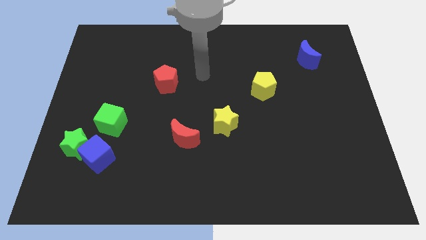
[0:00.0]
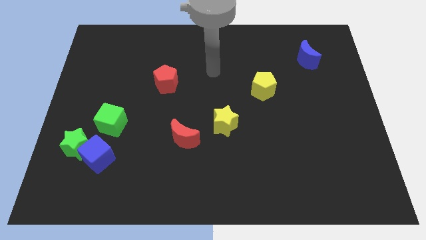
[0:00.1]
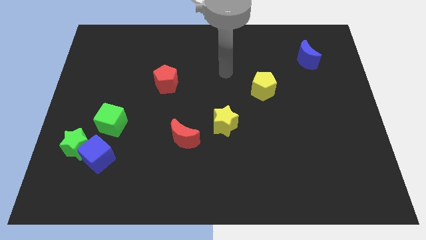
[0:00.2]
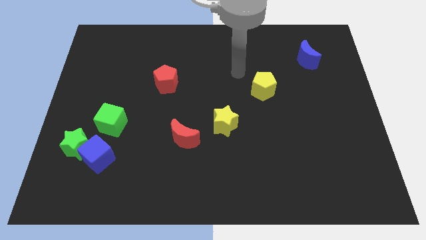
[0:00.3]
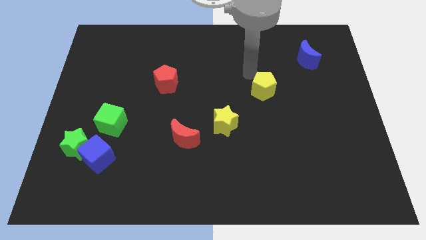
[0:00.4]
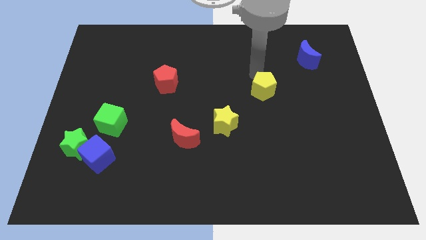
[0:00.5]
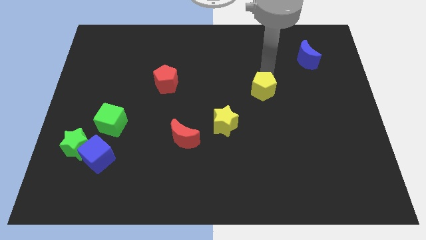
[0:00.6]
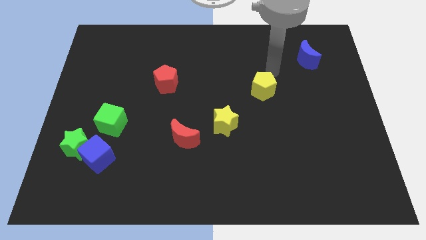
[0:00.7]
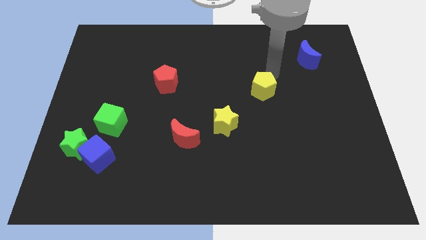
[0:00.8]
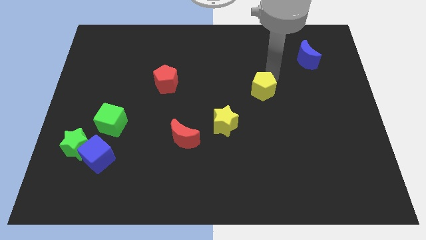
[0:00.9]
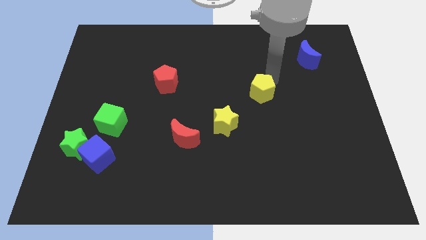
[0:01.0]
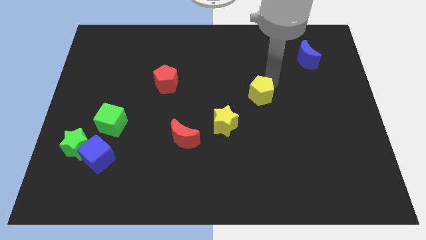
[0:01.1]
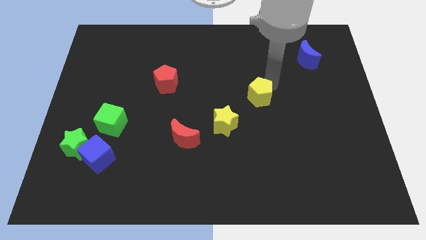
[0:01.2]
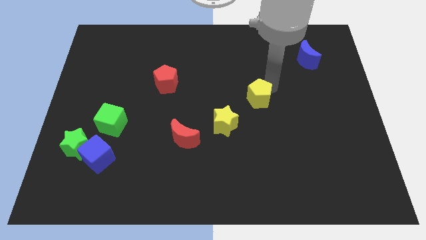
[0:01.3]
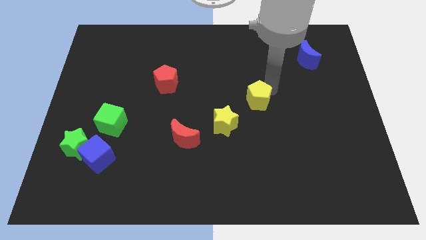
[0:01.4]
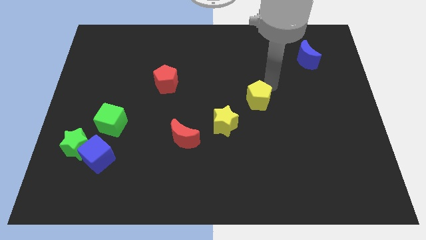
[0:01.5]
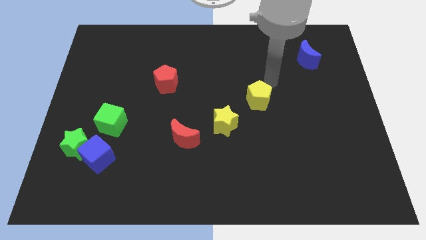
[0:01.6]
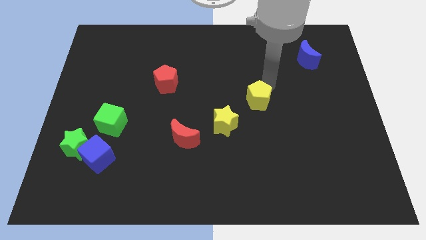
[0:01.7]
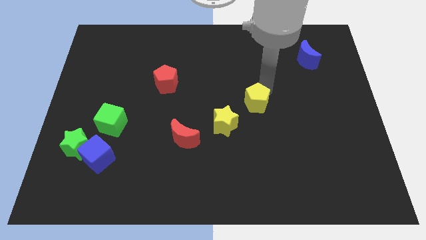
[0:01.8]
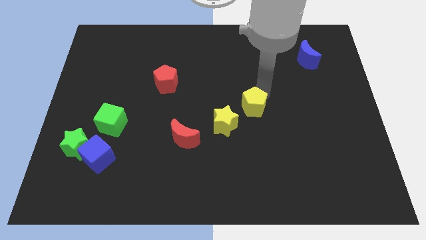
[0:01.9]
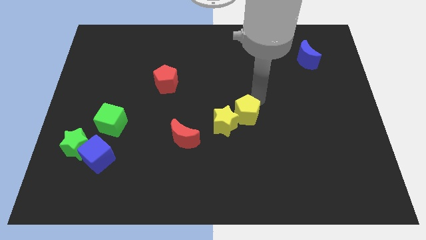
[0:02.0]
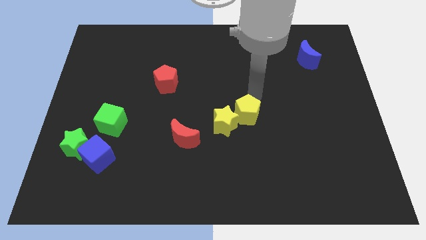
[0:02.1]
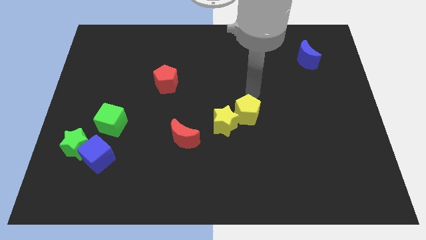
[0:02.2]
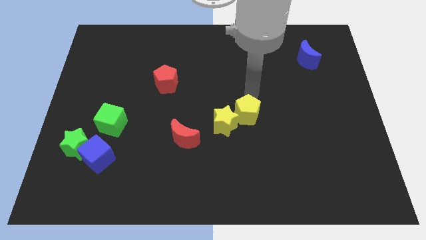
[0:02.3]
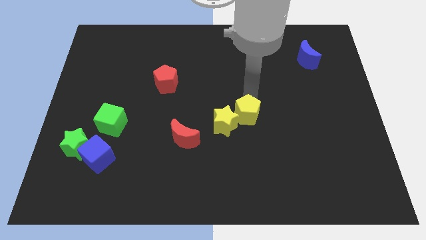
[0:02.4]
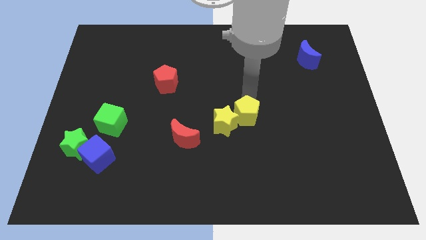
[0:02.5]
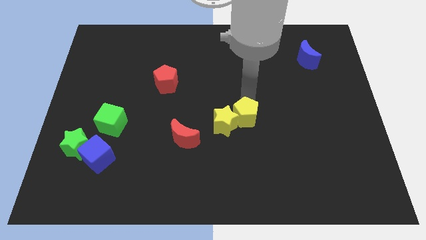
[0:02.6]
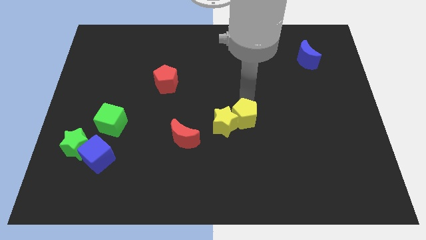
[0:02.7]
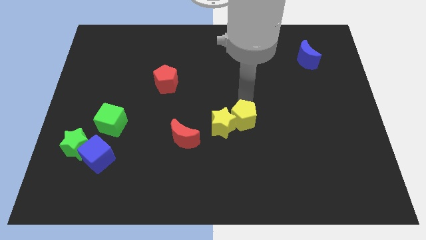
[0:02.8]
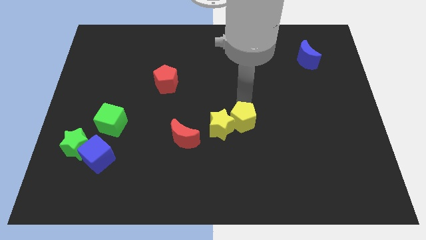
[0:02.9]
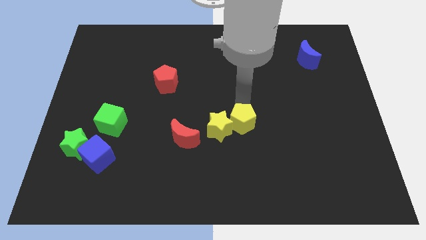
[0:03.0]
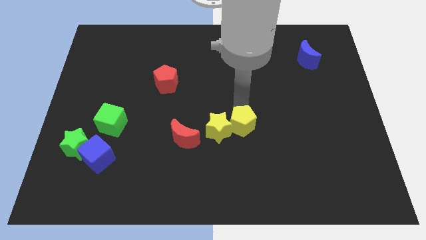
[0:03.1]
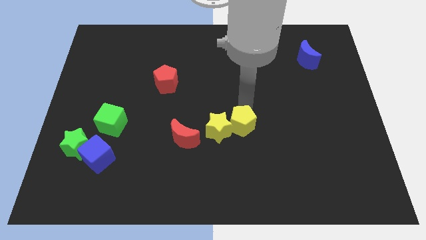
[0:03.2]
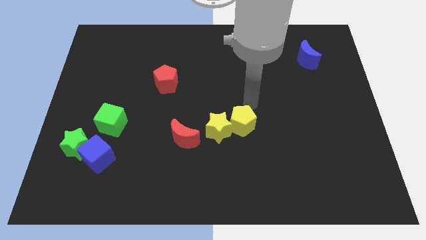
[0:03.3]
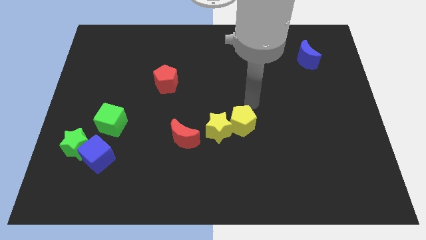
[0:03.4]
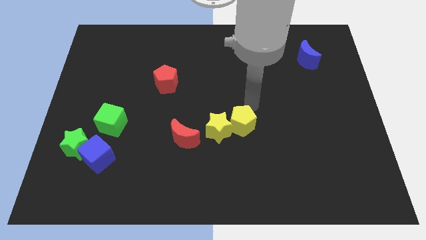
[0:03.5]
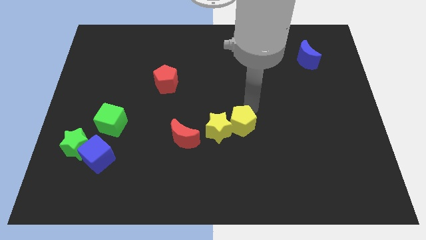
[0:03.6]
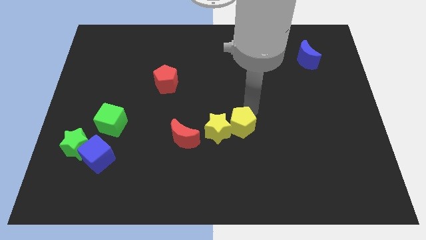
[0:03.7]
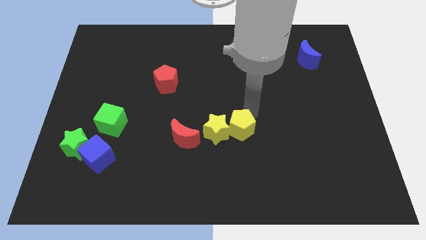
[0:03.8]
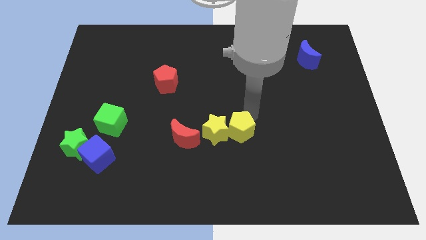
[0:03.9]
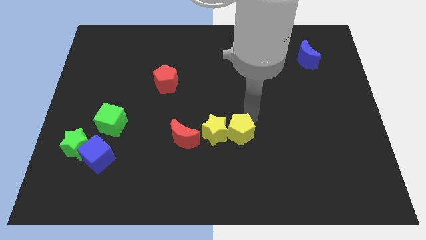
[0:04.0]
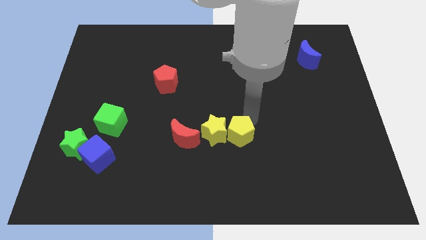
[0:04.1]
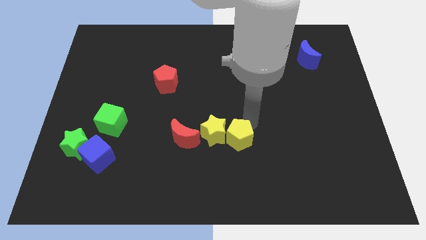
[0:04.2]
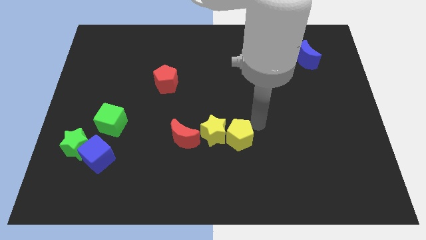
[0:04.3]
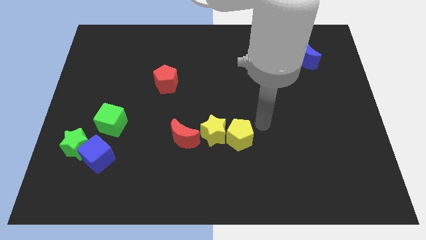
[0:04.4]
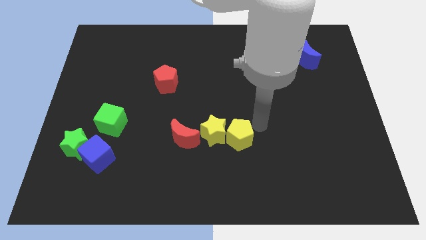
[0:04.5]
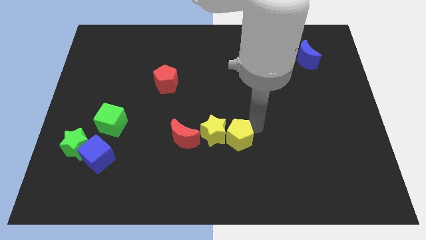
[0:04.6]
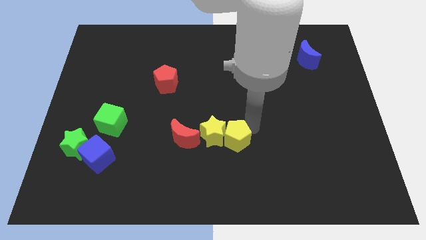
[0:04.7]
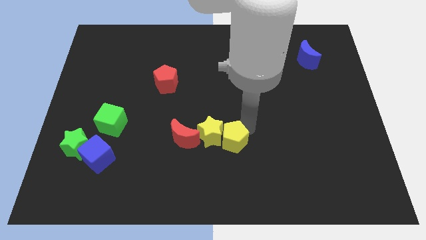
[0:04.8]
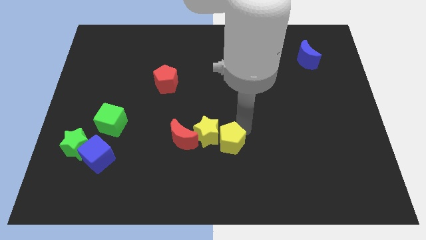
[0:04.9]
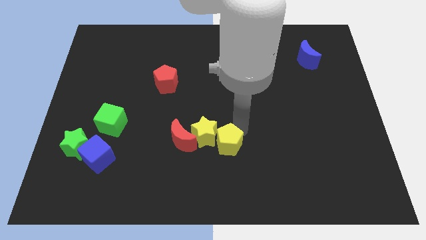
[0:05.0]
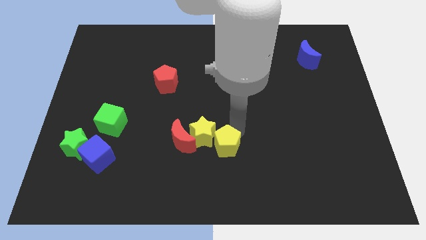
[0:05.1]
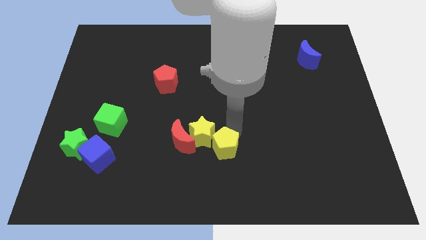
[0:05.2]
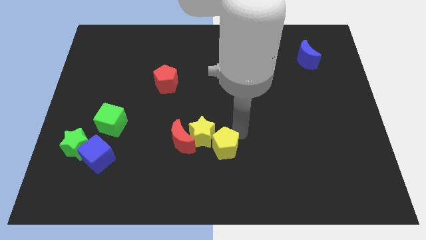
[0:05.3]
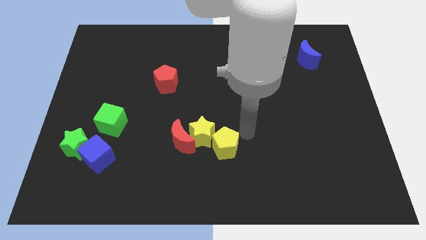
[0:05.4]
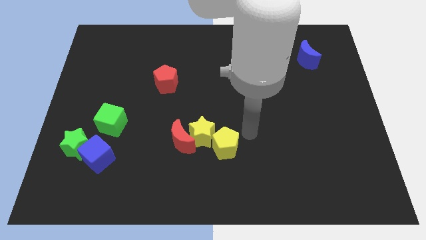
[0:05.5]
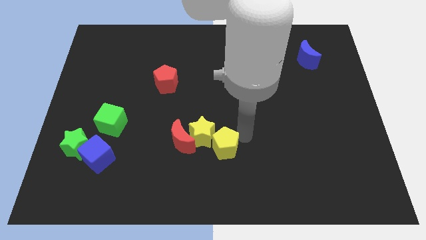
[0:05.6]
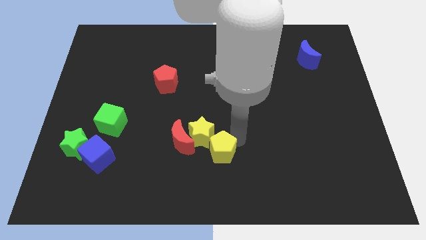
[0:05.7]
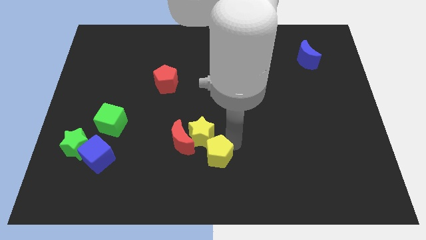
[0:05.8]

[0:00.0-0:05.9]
push the yellow pentagon downwards and left diagonally

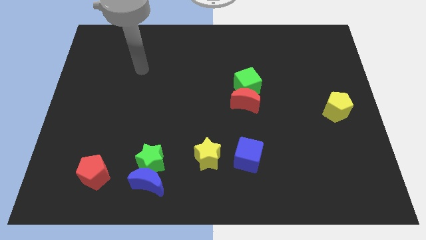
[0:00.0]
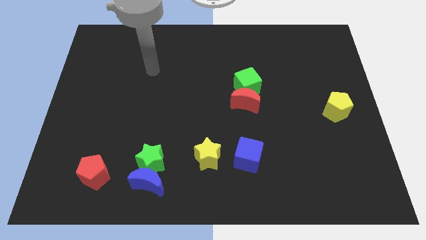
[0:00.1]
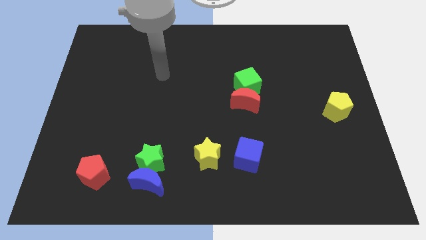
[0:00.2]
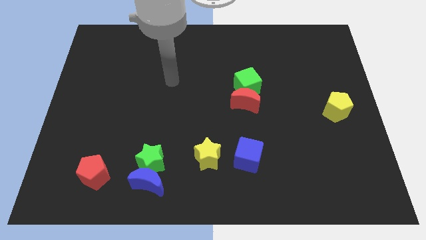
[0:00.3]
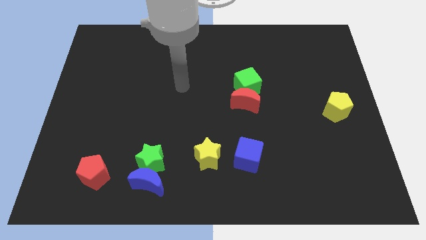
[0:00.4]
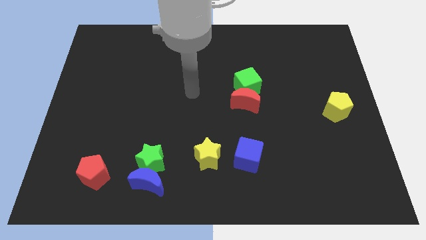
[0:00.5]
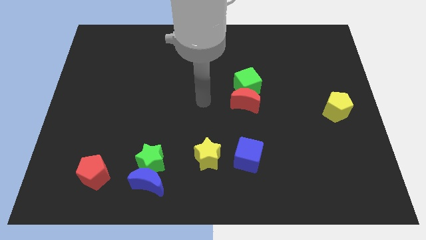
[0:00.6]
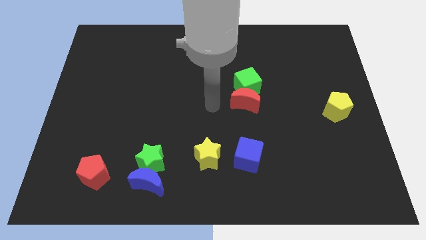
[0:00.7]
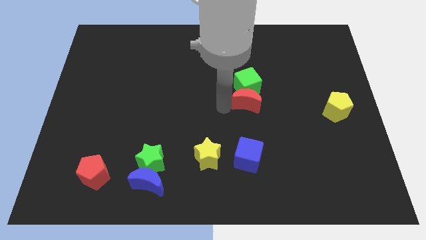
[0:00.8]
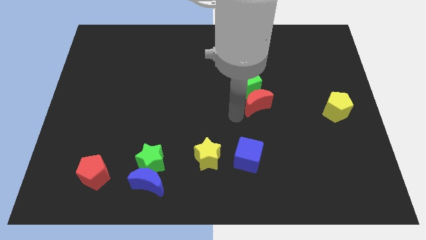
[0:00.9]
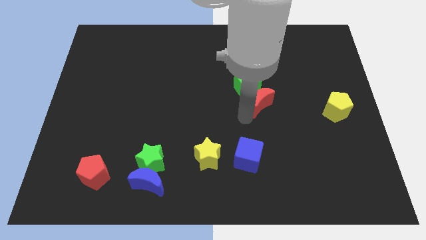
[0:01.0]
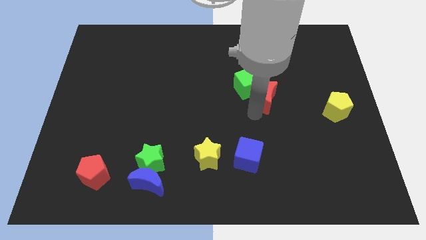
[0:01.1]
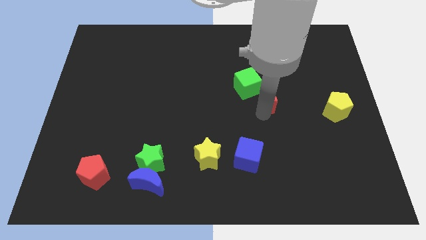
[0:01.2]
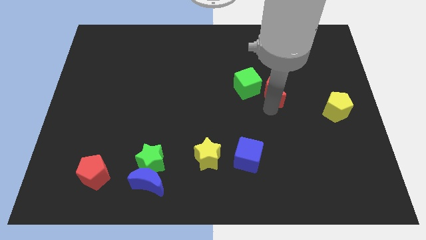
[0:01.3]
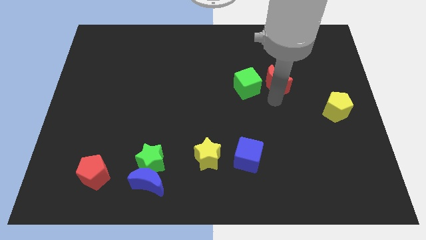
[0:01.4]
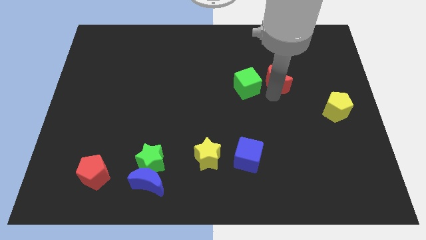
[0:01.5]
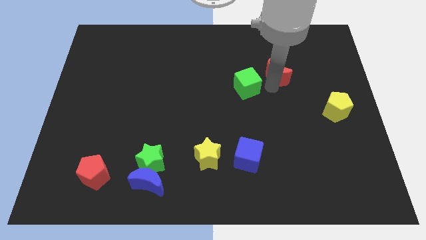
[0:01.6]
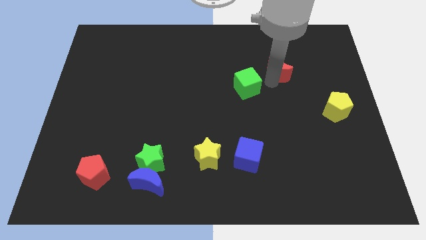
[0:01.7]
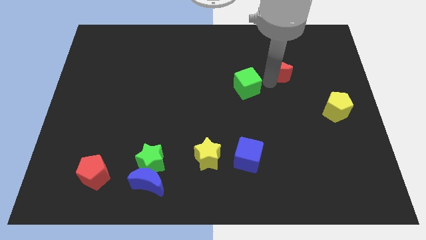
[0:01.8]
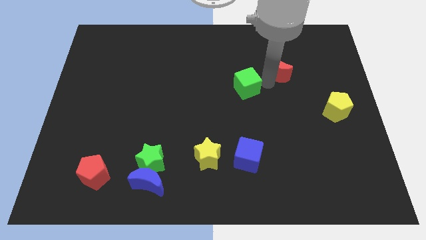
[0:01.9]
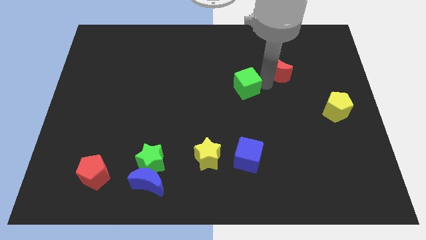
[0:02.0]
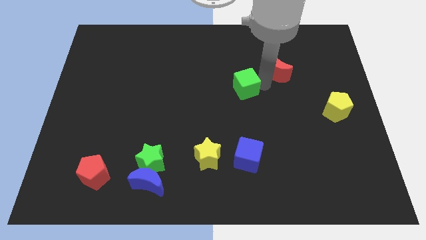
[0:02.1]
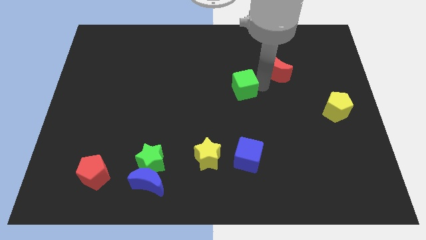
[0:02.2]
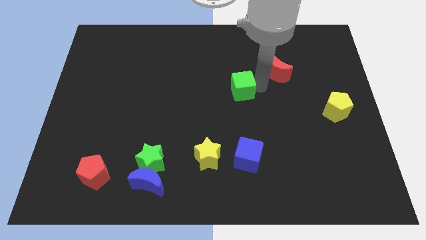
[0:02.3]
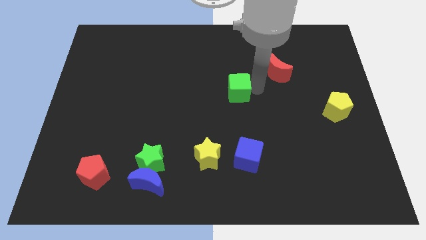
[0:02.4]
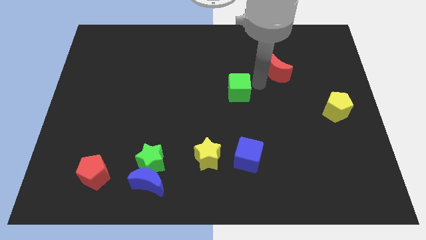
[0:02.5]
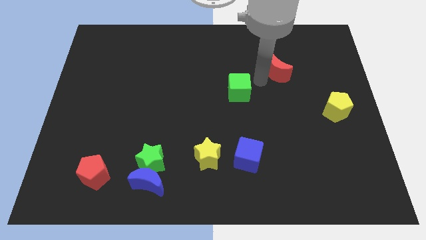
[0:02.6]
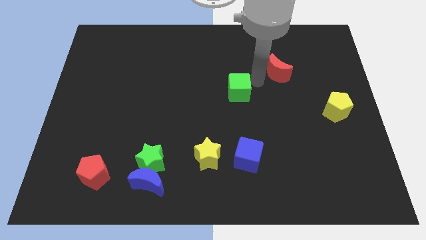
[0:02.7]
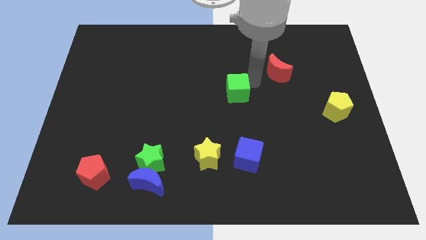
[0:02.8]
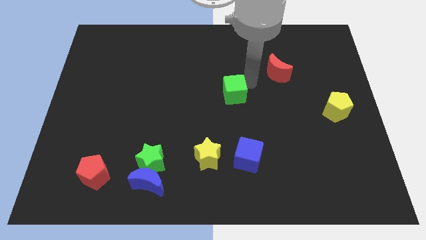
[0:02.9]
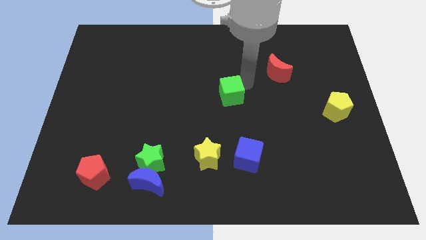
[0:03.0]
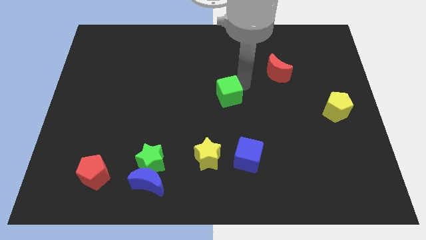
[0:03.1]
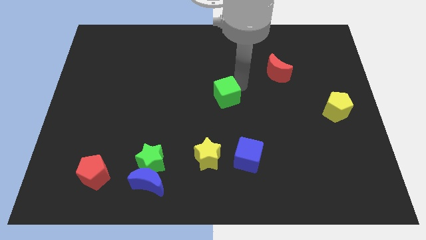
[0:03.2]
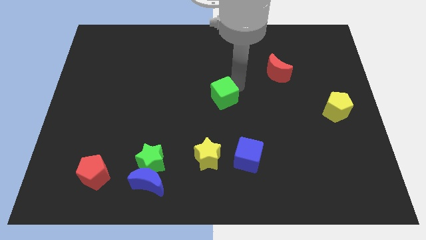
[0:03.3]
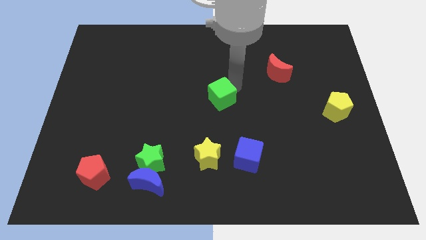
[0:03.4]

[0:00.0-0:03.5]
move the green cube downwards and to the left somewhat
